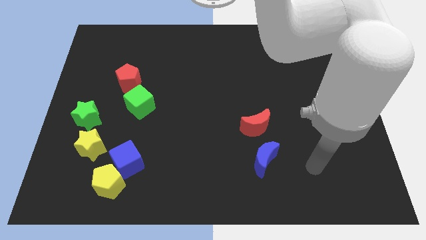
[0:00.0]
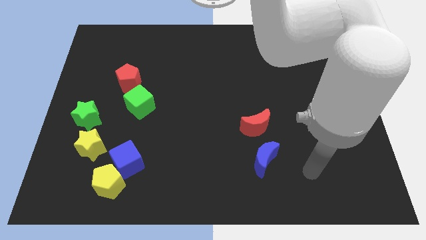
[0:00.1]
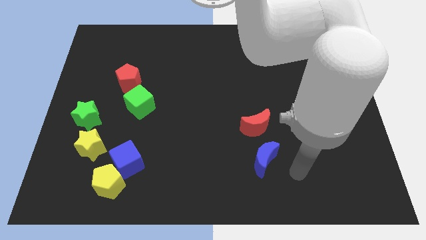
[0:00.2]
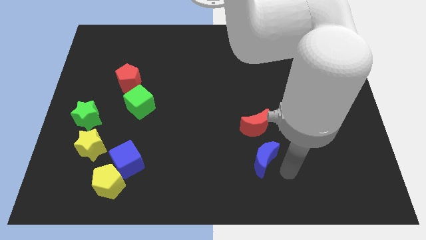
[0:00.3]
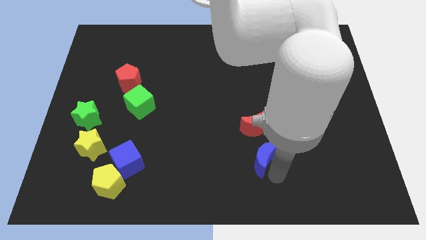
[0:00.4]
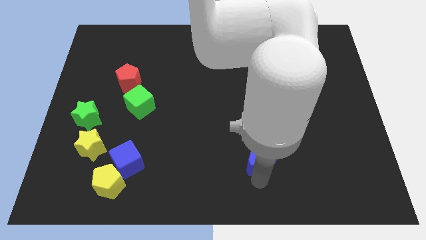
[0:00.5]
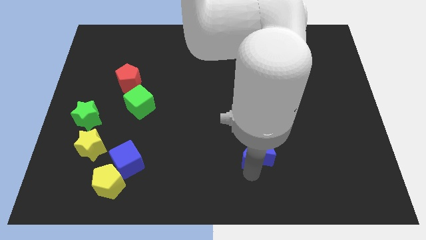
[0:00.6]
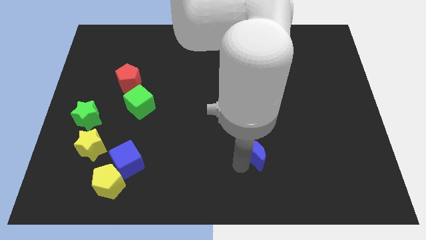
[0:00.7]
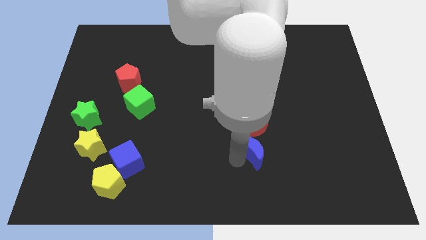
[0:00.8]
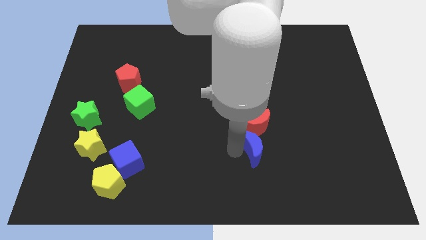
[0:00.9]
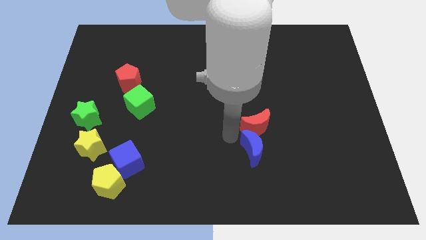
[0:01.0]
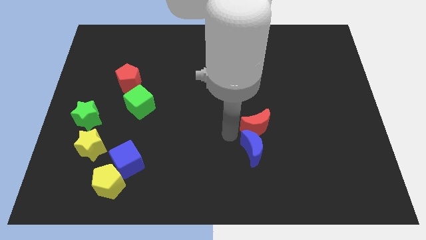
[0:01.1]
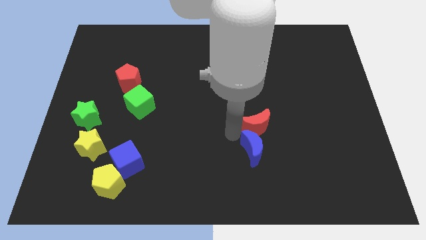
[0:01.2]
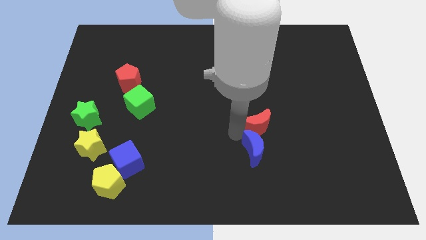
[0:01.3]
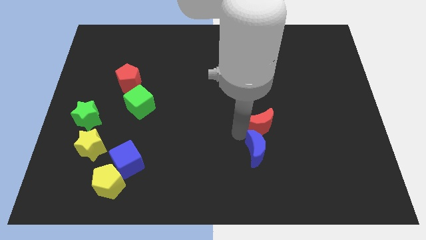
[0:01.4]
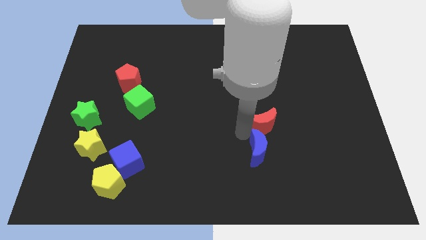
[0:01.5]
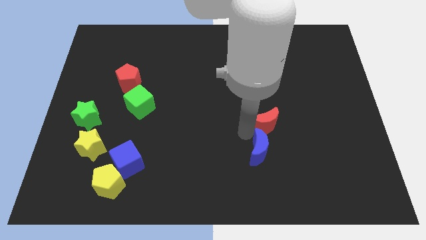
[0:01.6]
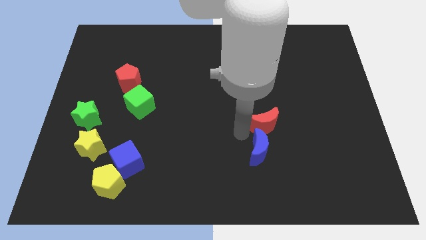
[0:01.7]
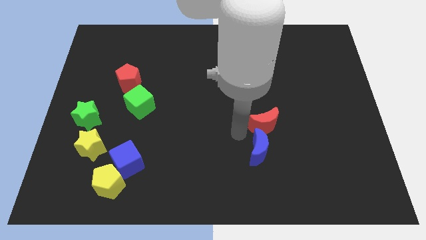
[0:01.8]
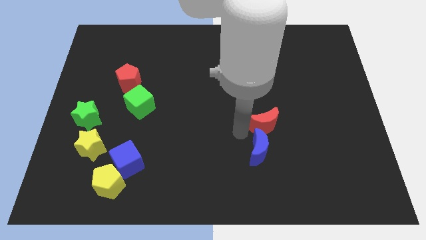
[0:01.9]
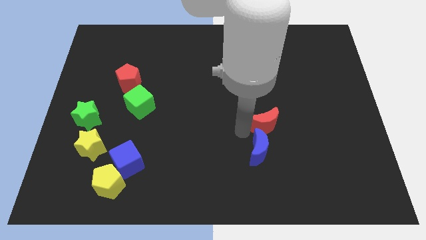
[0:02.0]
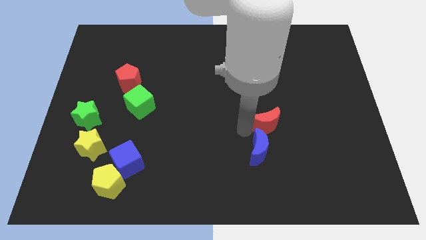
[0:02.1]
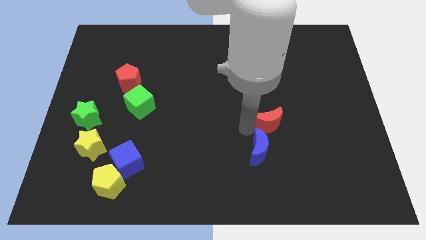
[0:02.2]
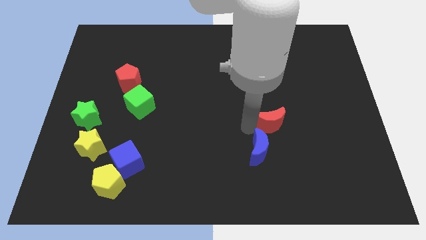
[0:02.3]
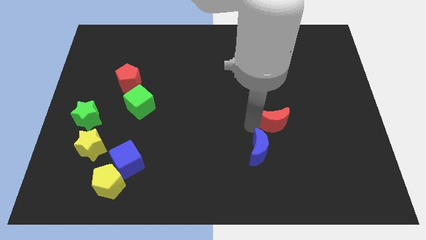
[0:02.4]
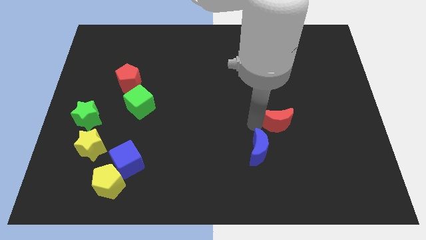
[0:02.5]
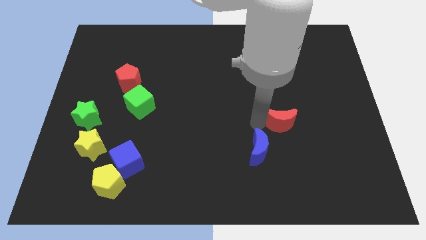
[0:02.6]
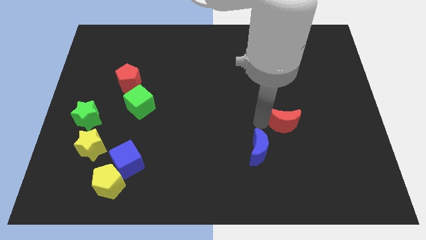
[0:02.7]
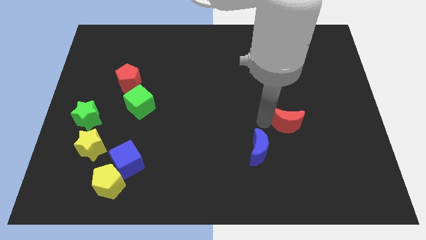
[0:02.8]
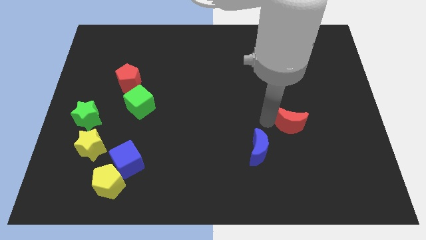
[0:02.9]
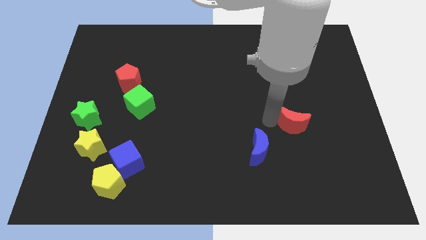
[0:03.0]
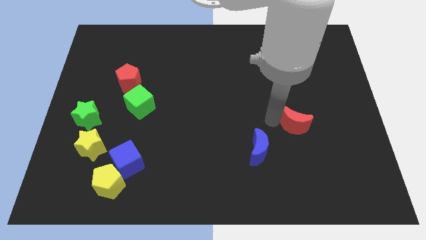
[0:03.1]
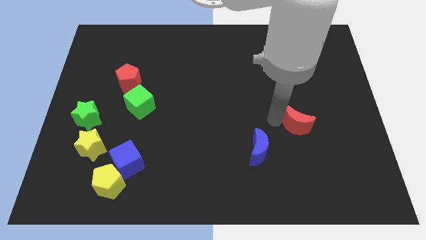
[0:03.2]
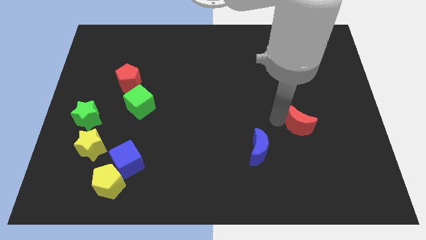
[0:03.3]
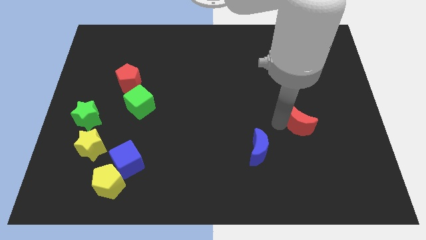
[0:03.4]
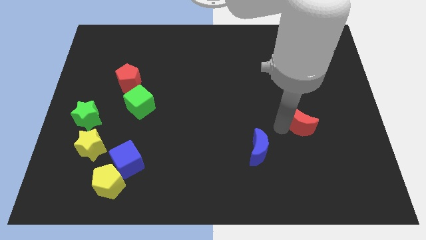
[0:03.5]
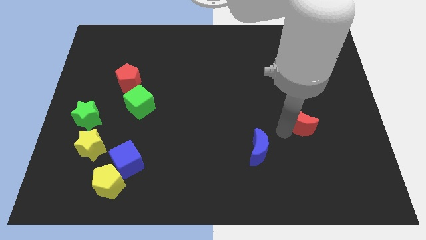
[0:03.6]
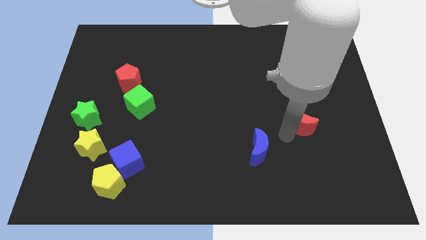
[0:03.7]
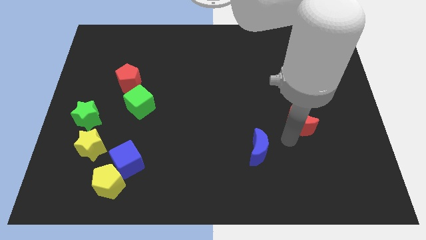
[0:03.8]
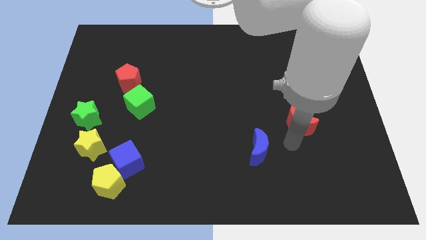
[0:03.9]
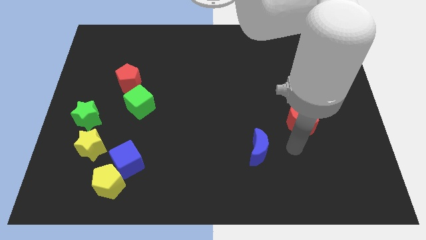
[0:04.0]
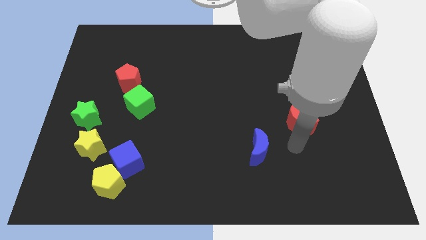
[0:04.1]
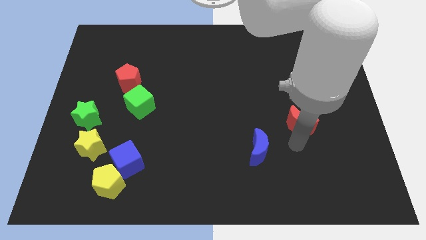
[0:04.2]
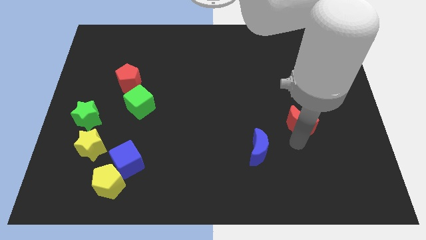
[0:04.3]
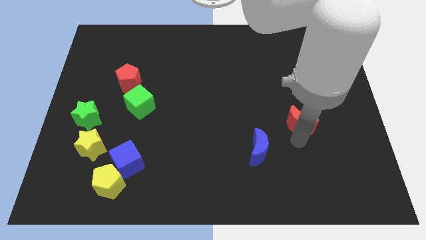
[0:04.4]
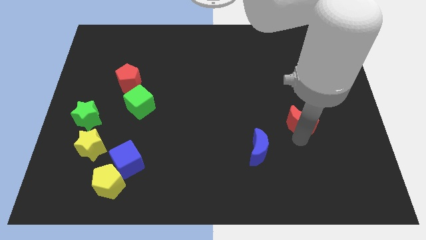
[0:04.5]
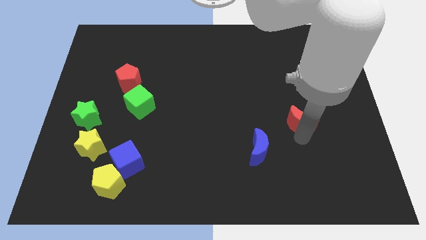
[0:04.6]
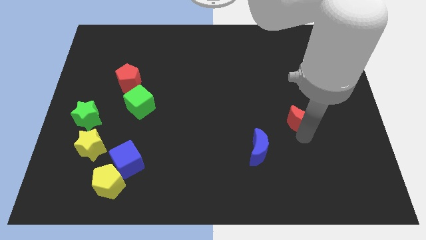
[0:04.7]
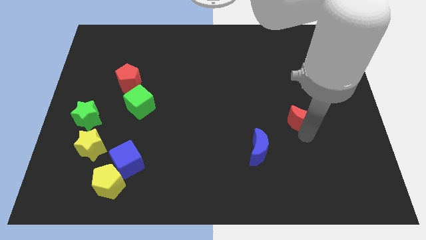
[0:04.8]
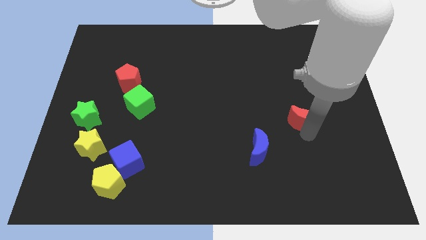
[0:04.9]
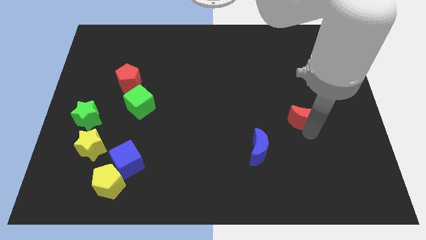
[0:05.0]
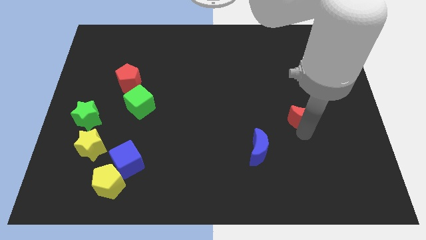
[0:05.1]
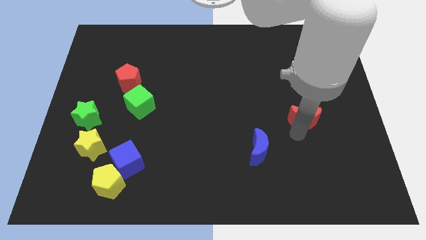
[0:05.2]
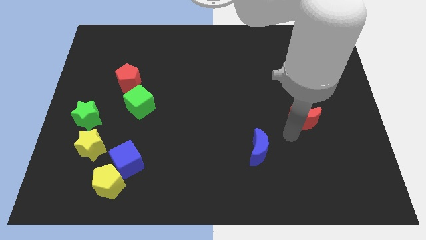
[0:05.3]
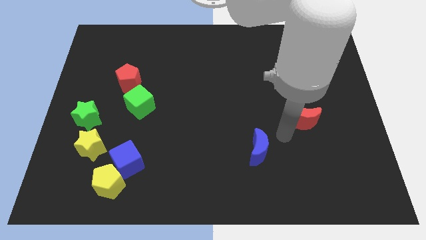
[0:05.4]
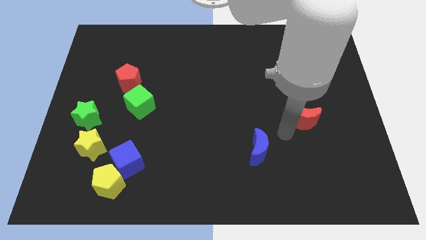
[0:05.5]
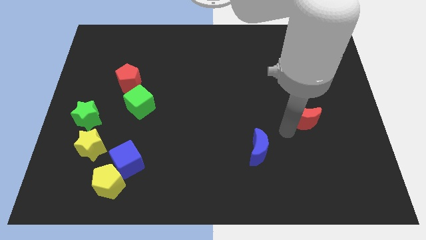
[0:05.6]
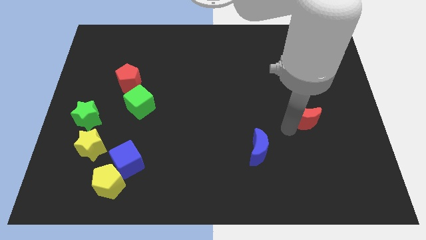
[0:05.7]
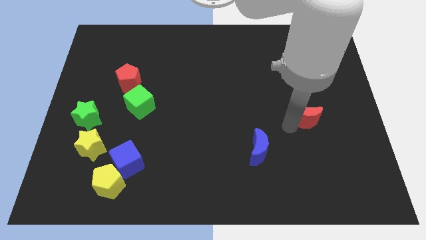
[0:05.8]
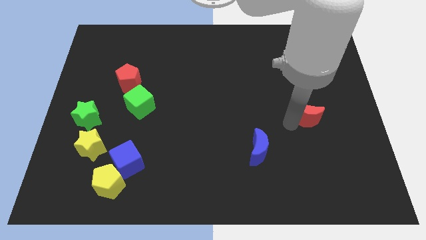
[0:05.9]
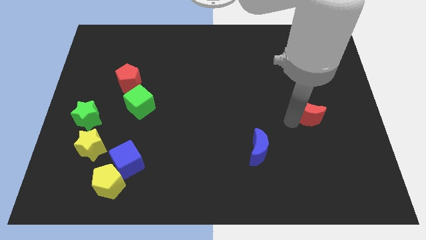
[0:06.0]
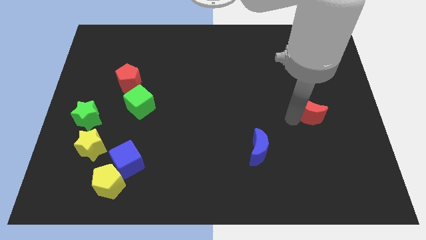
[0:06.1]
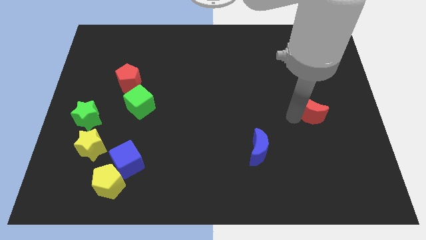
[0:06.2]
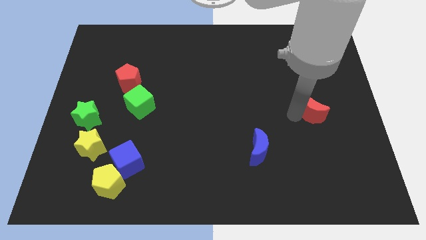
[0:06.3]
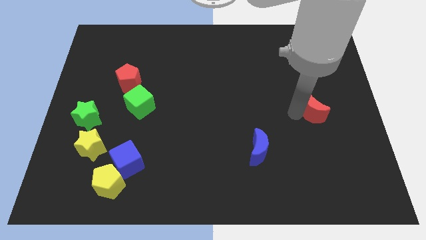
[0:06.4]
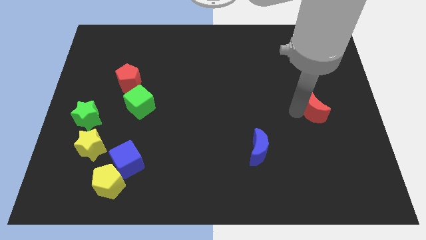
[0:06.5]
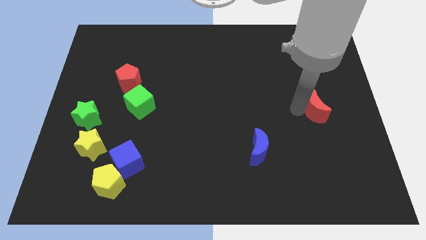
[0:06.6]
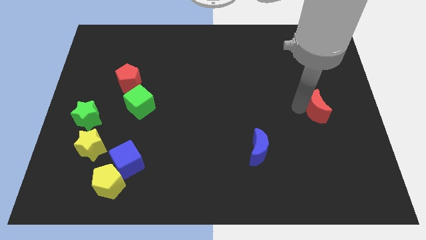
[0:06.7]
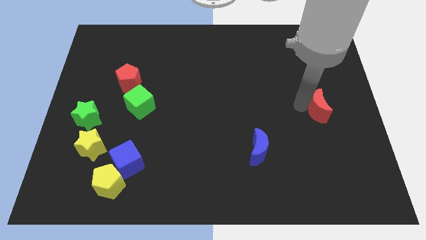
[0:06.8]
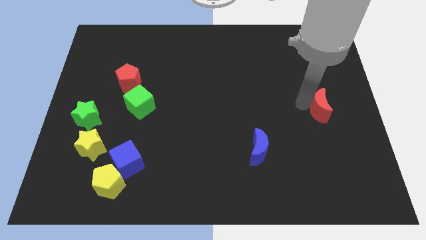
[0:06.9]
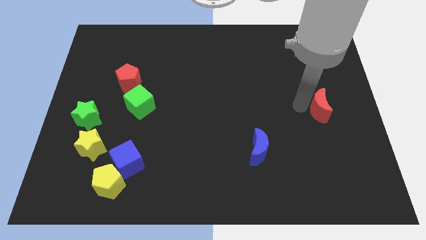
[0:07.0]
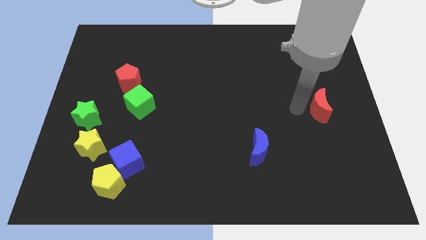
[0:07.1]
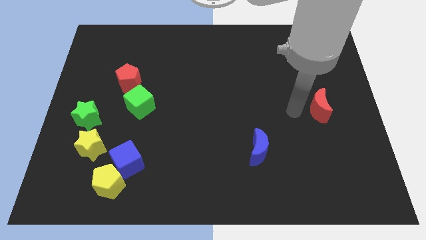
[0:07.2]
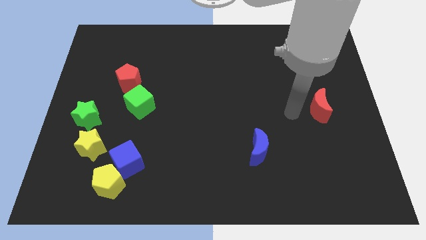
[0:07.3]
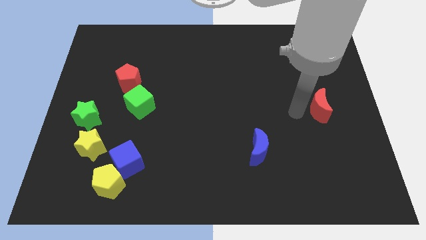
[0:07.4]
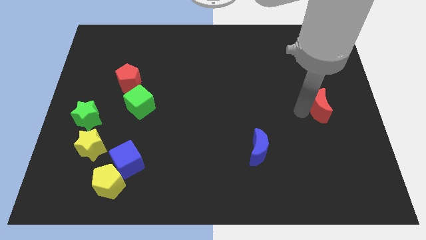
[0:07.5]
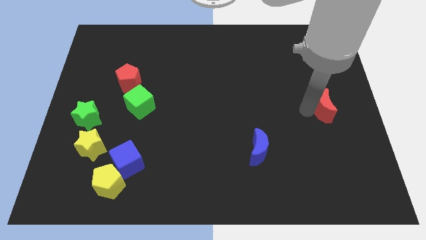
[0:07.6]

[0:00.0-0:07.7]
push the red moon to the right side of the board
